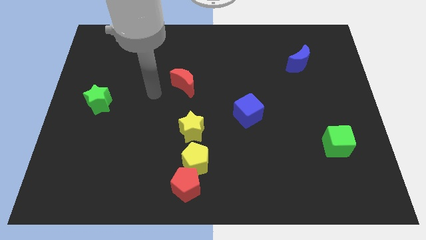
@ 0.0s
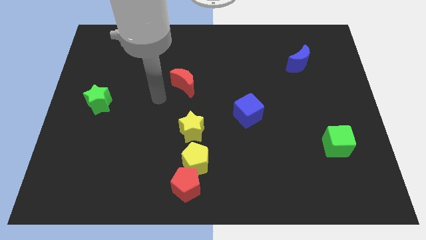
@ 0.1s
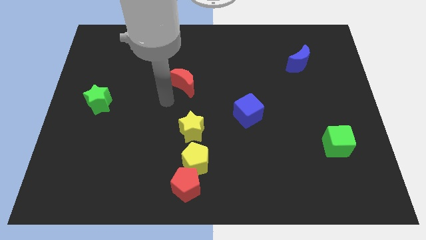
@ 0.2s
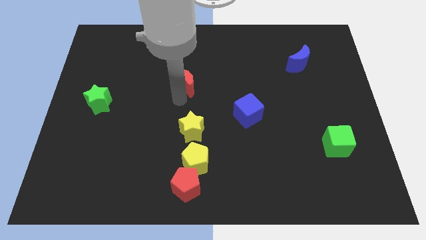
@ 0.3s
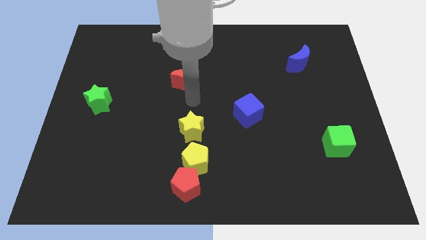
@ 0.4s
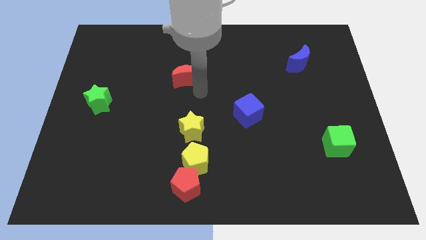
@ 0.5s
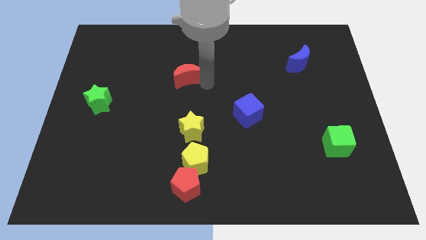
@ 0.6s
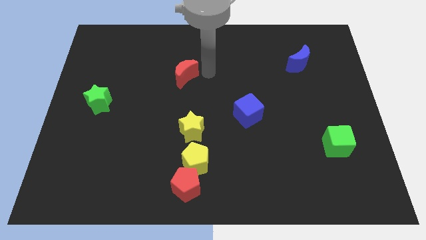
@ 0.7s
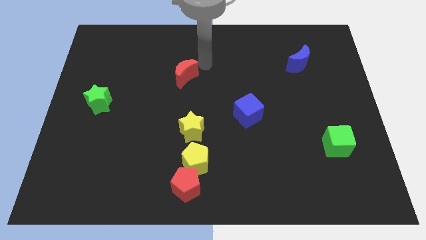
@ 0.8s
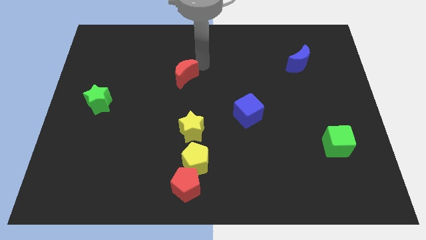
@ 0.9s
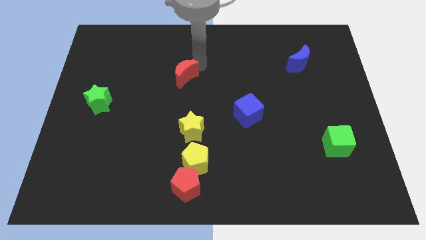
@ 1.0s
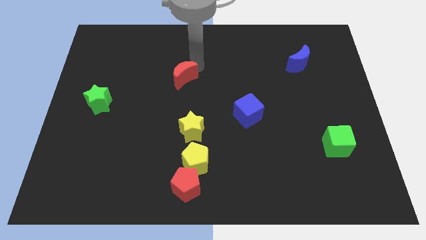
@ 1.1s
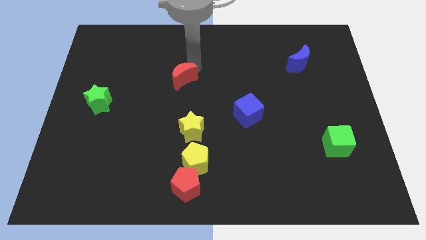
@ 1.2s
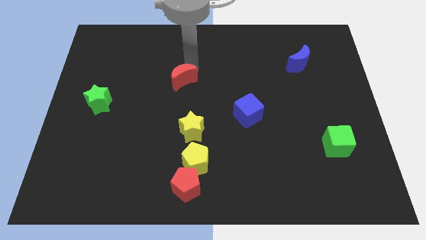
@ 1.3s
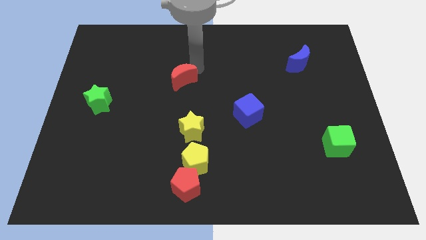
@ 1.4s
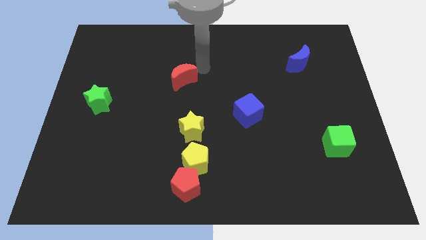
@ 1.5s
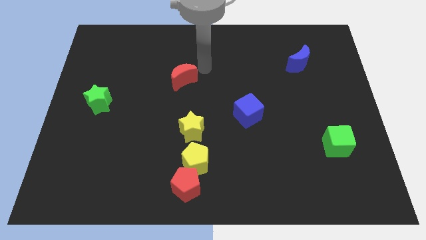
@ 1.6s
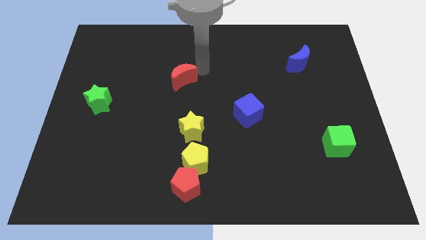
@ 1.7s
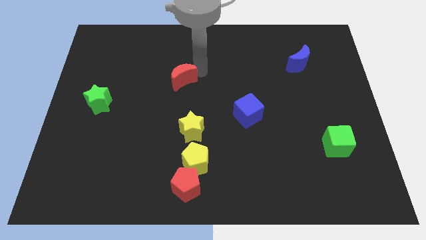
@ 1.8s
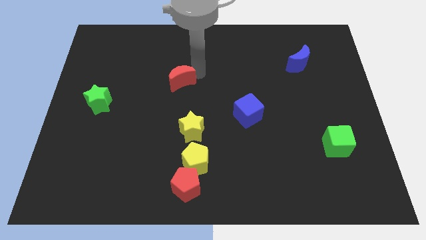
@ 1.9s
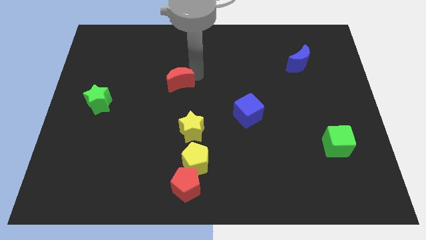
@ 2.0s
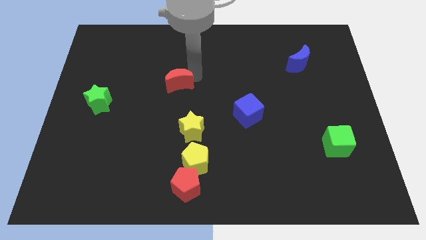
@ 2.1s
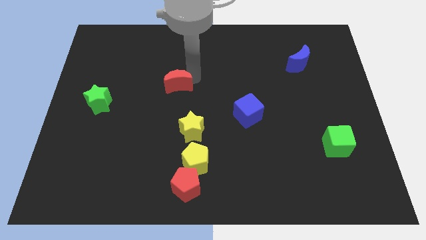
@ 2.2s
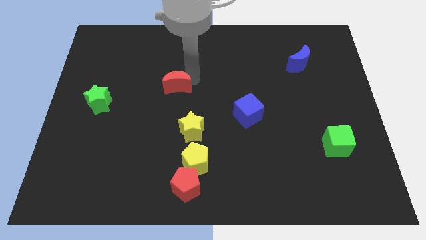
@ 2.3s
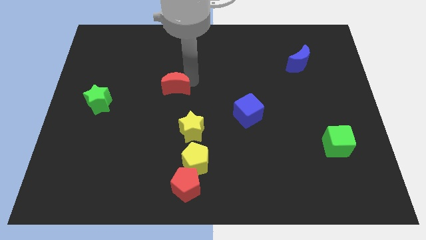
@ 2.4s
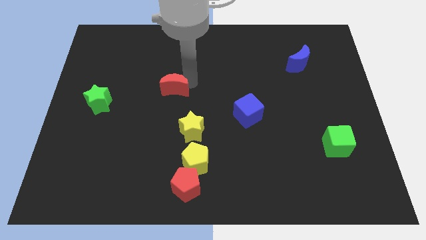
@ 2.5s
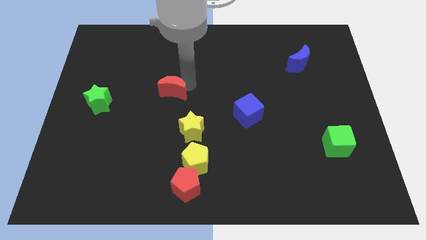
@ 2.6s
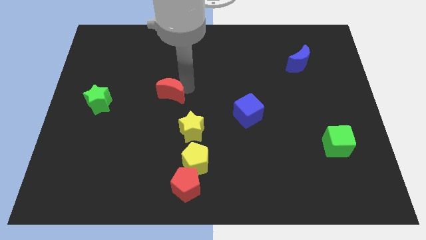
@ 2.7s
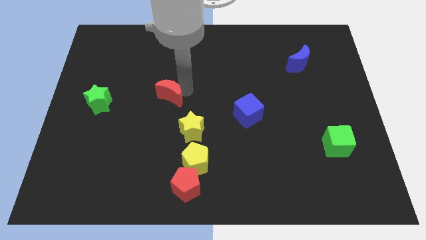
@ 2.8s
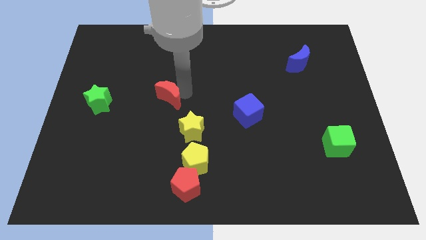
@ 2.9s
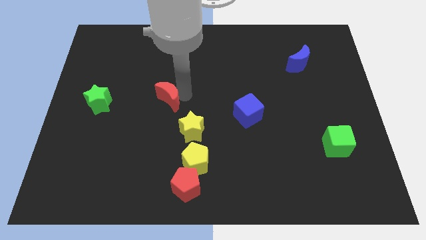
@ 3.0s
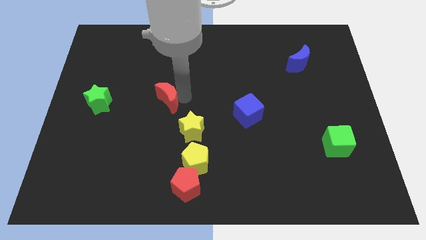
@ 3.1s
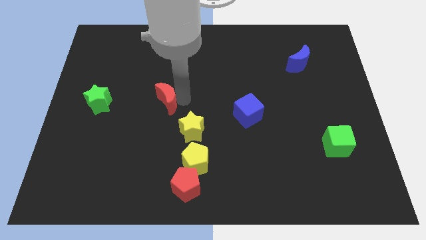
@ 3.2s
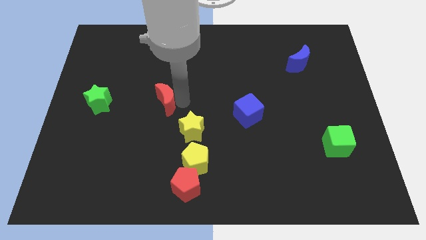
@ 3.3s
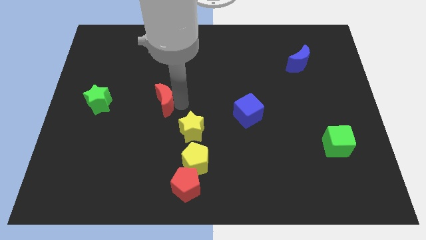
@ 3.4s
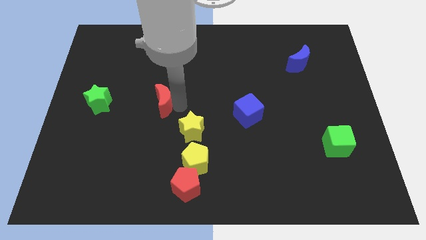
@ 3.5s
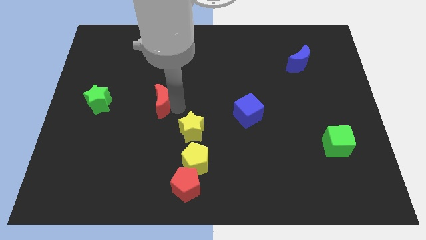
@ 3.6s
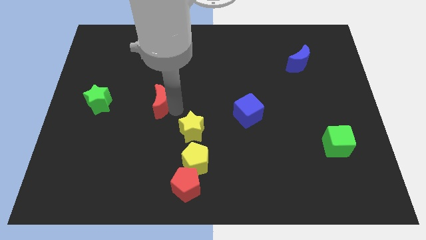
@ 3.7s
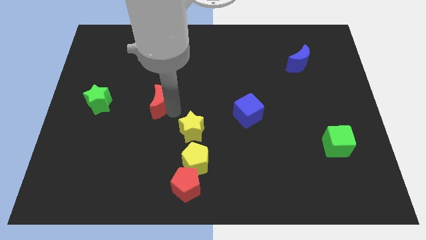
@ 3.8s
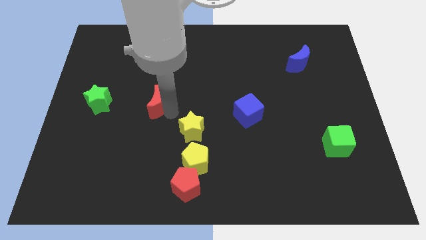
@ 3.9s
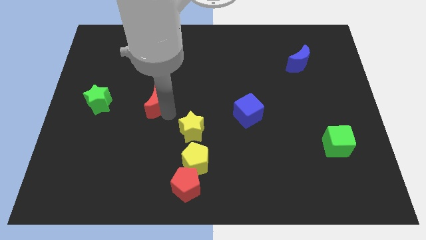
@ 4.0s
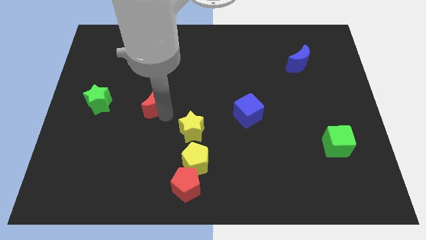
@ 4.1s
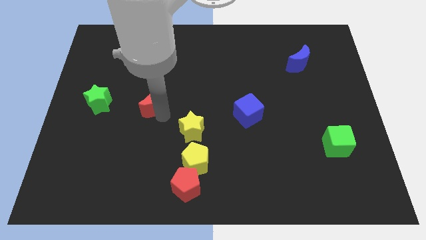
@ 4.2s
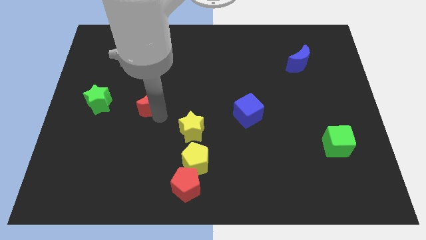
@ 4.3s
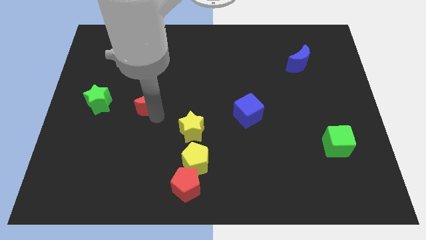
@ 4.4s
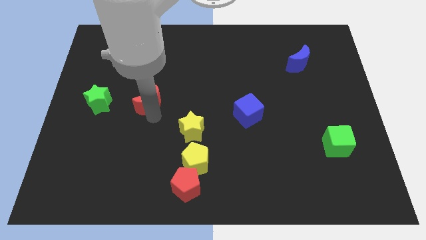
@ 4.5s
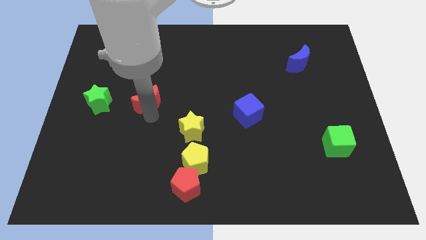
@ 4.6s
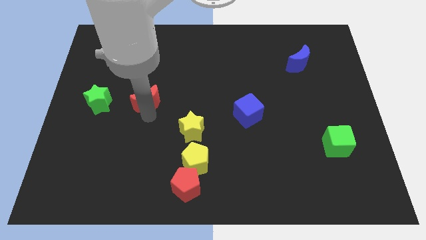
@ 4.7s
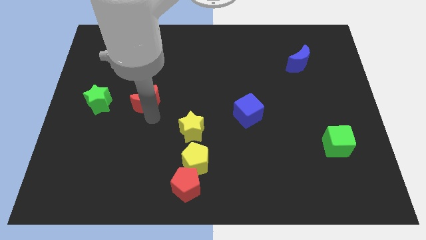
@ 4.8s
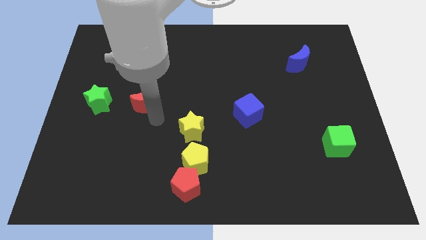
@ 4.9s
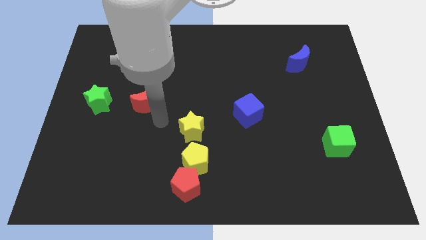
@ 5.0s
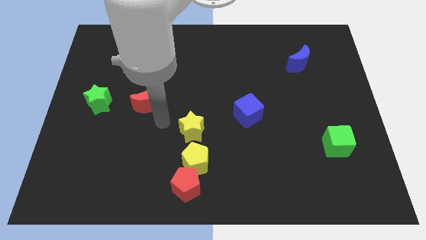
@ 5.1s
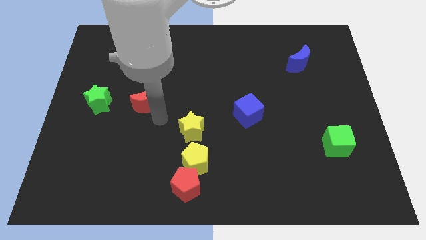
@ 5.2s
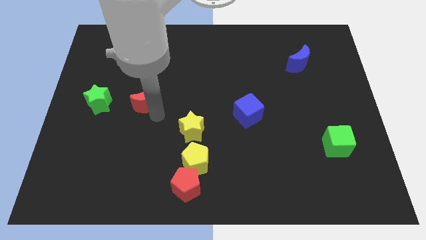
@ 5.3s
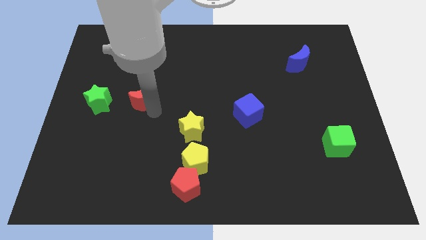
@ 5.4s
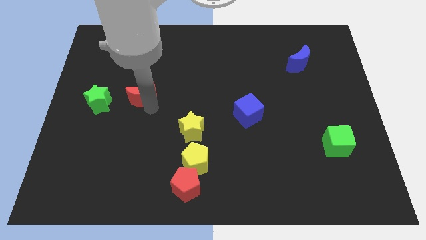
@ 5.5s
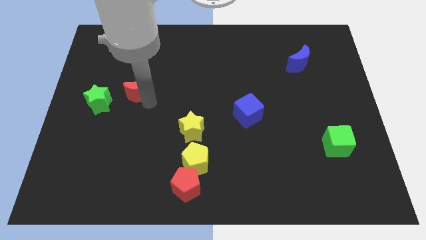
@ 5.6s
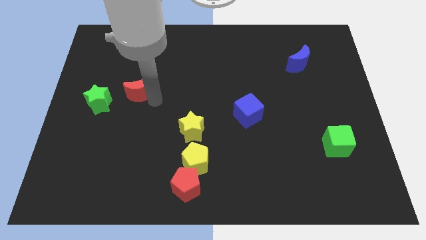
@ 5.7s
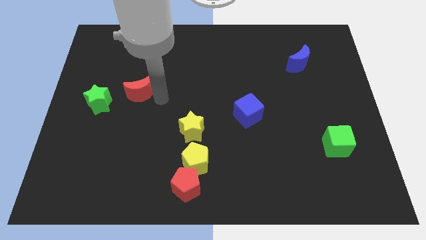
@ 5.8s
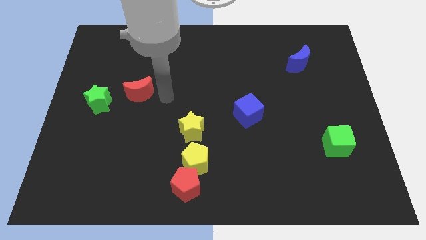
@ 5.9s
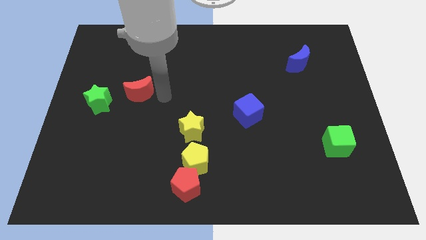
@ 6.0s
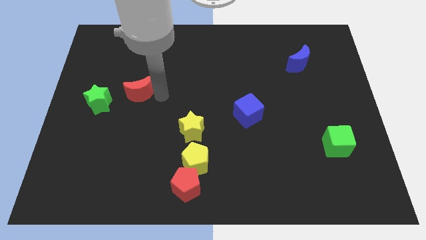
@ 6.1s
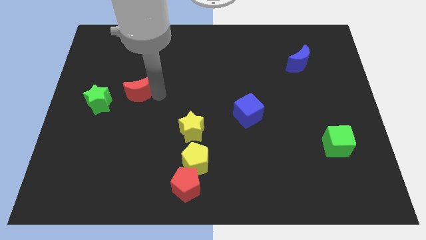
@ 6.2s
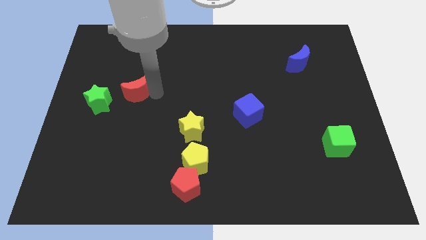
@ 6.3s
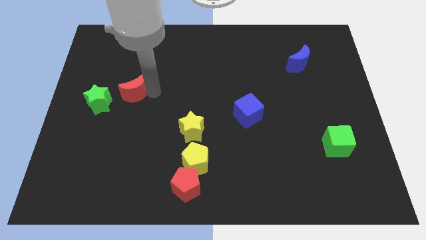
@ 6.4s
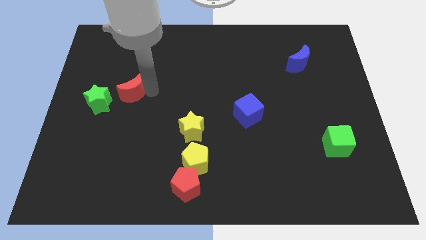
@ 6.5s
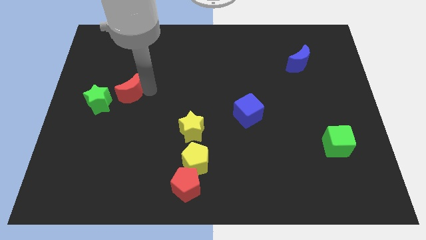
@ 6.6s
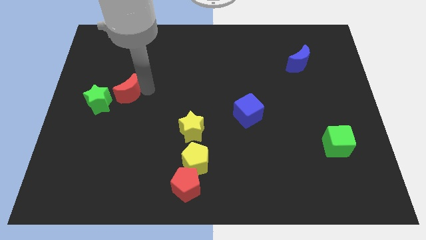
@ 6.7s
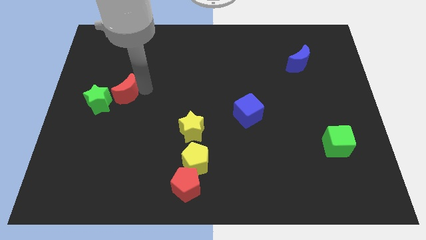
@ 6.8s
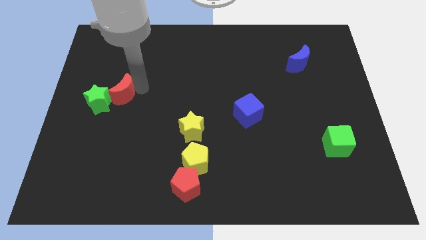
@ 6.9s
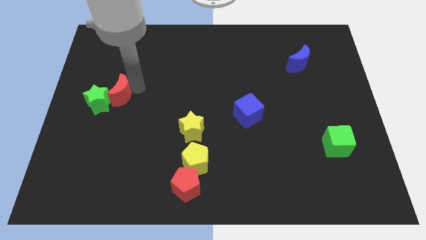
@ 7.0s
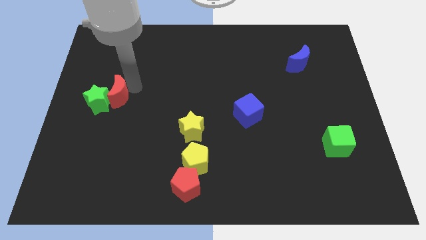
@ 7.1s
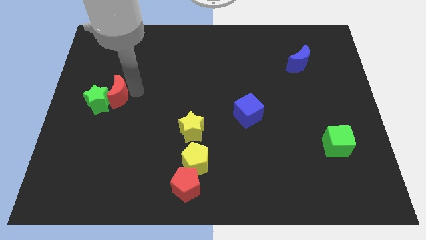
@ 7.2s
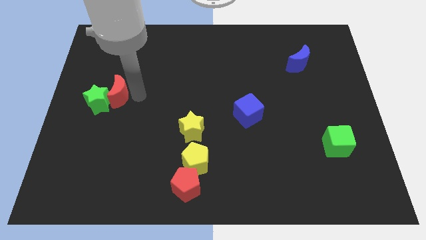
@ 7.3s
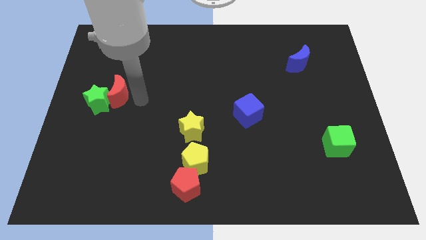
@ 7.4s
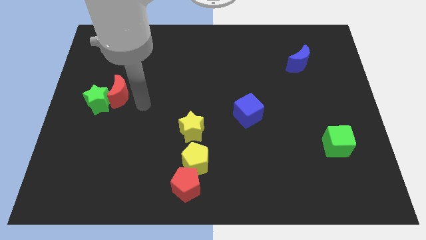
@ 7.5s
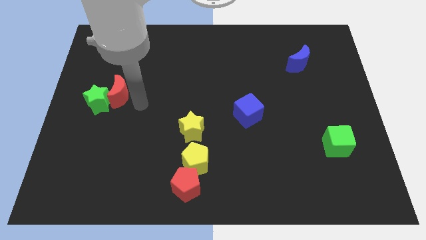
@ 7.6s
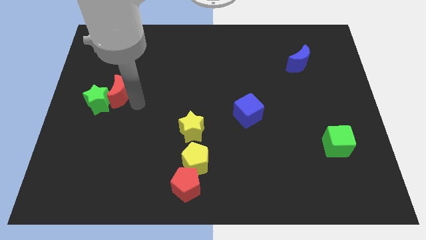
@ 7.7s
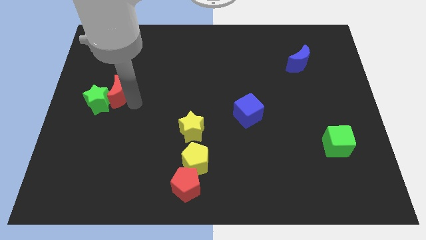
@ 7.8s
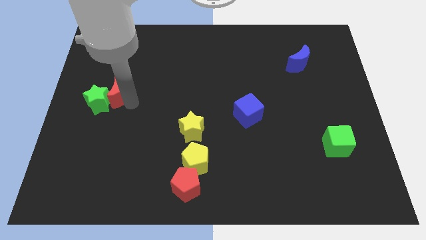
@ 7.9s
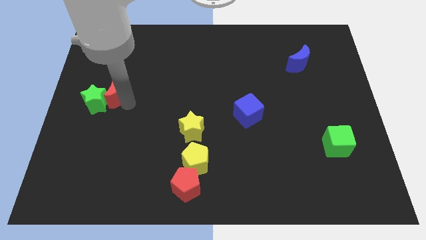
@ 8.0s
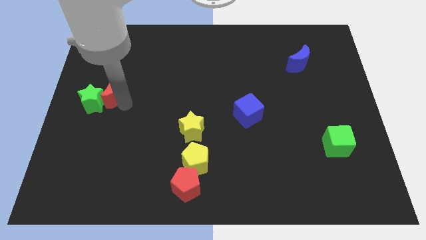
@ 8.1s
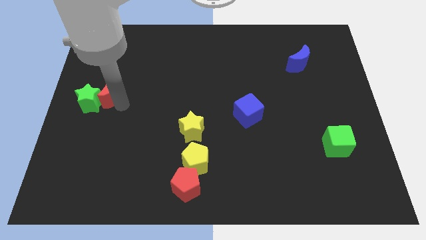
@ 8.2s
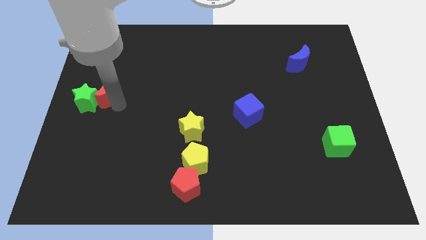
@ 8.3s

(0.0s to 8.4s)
slide the red moon to the left side
